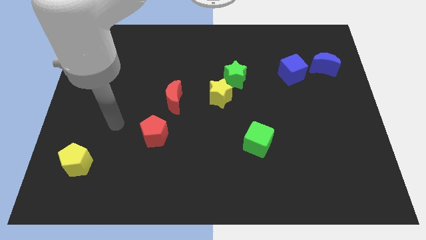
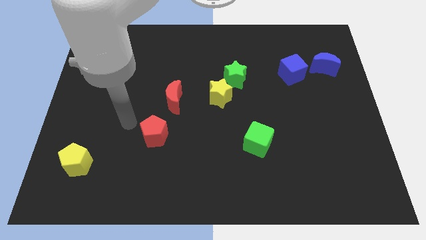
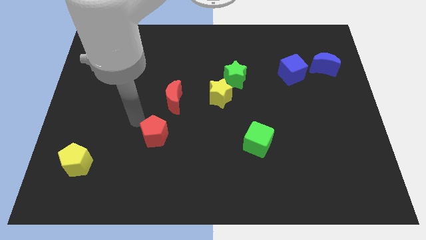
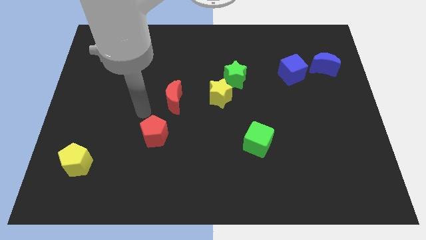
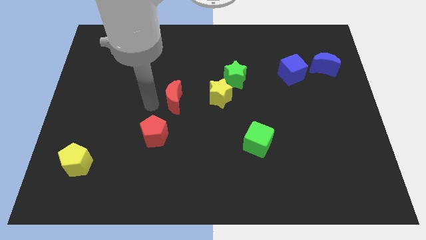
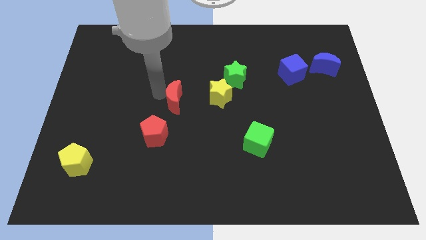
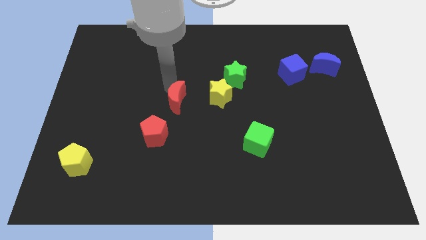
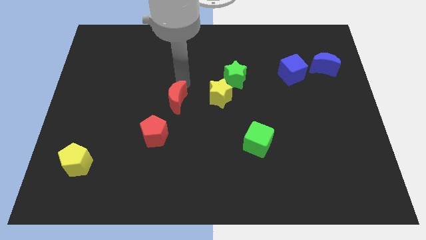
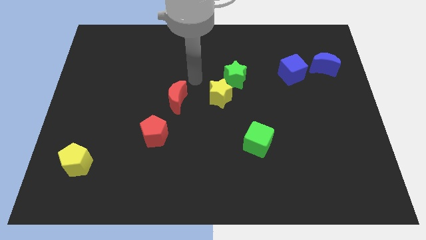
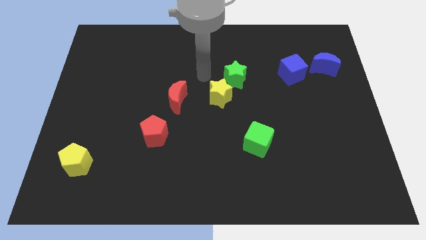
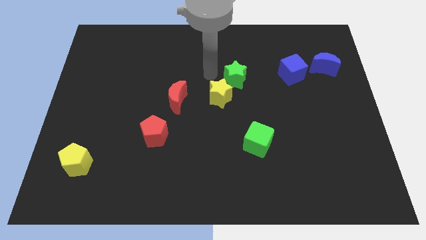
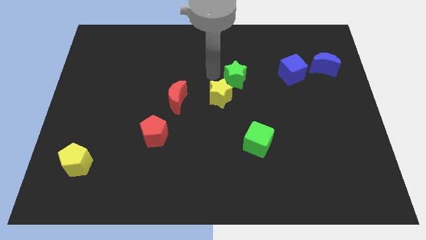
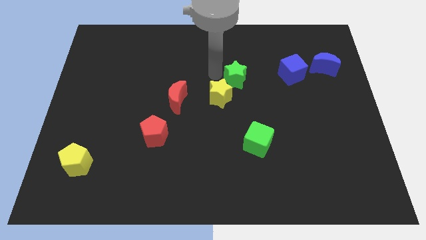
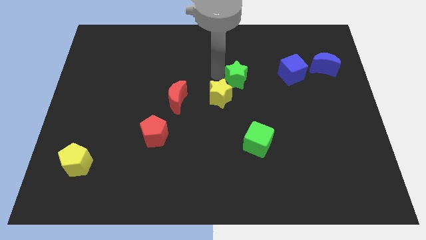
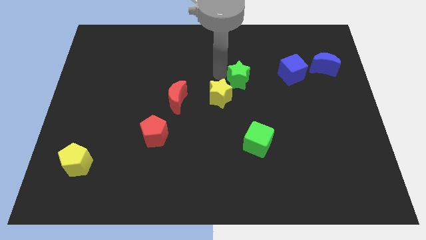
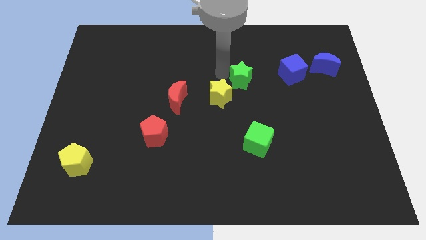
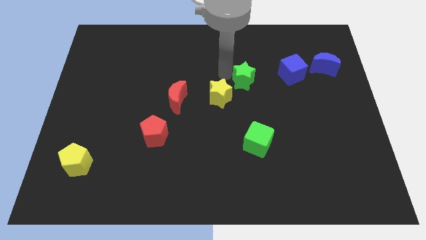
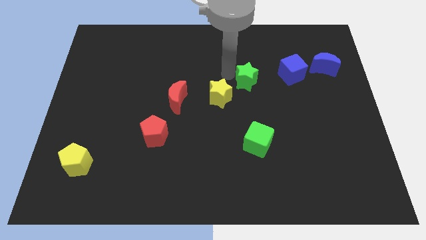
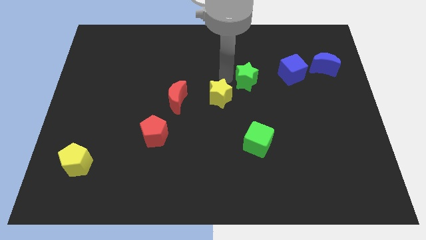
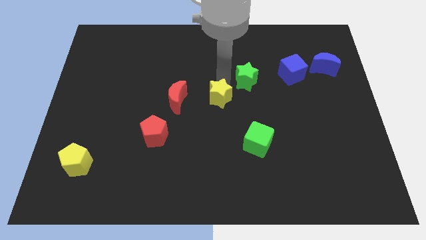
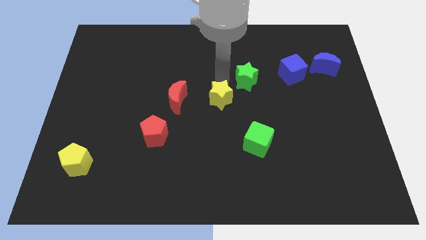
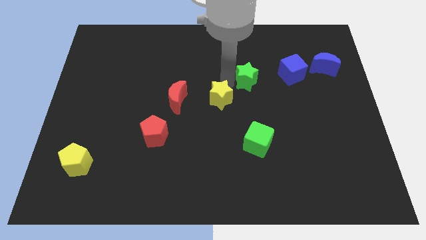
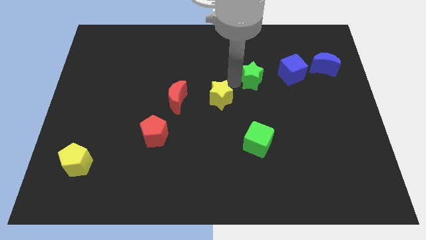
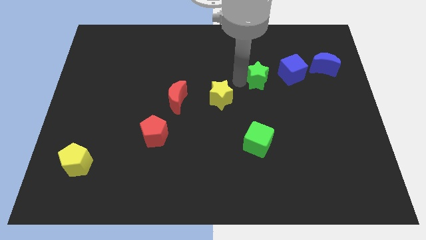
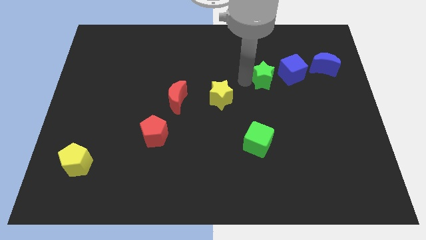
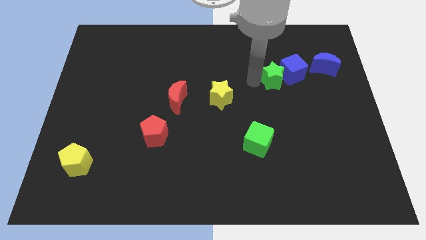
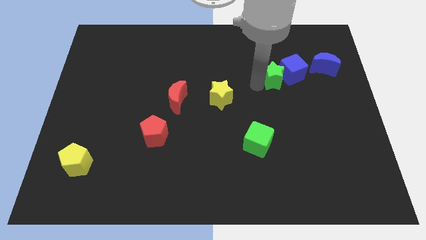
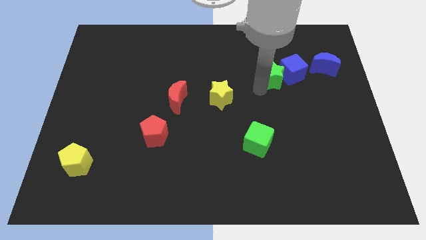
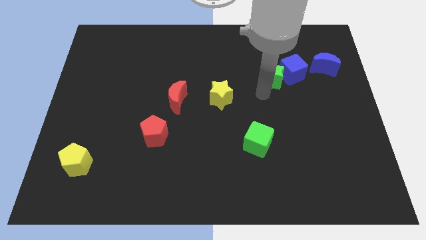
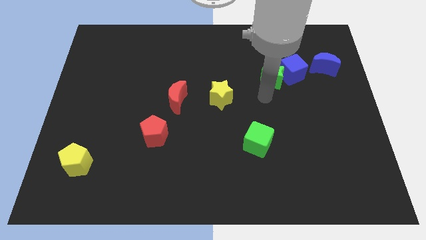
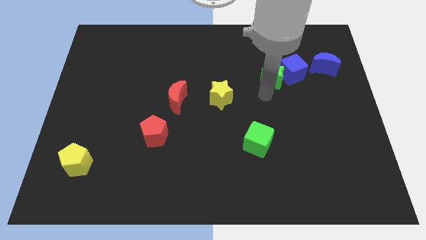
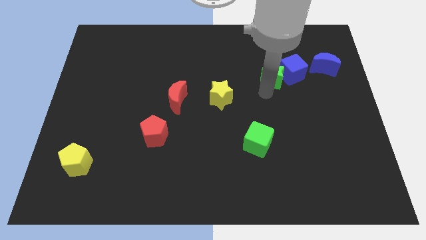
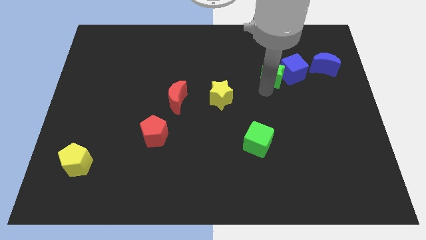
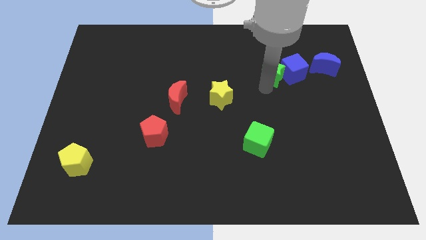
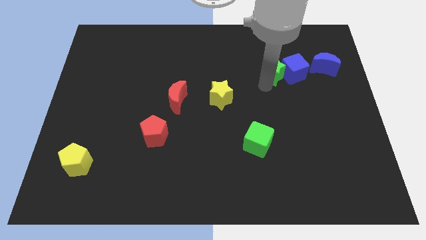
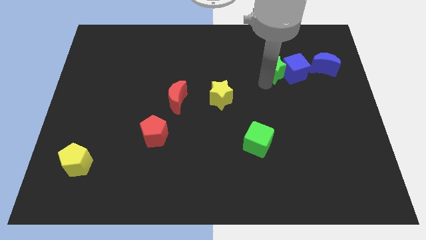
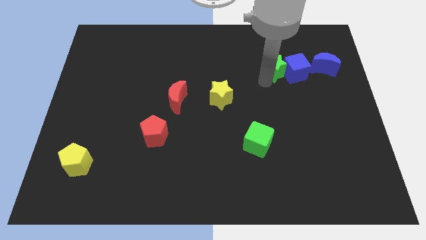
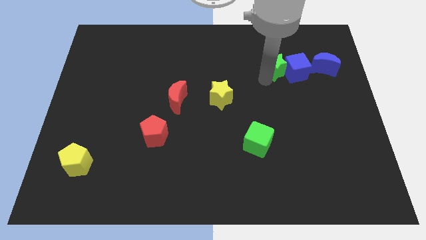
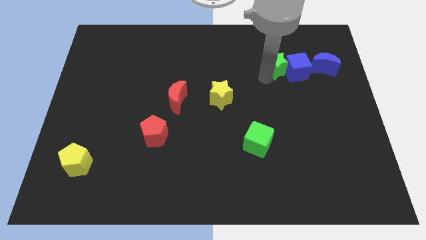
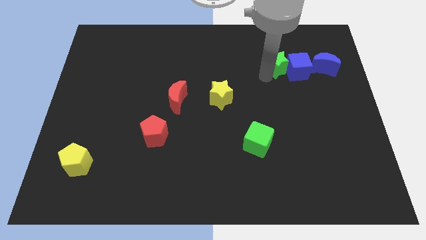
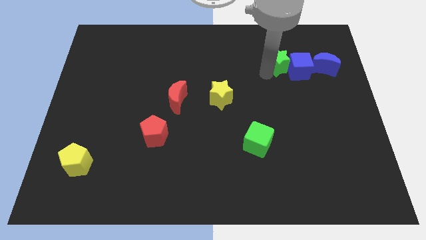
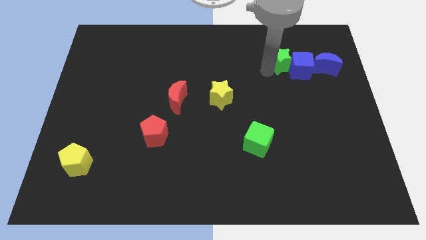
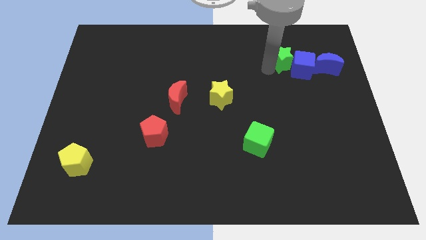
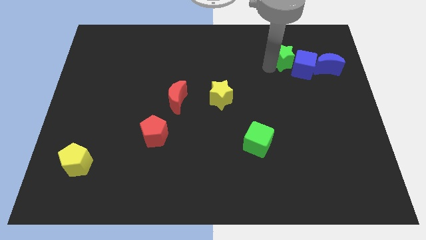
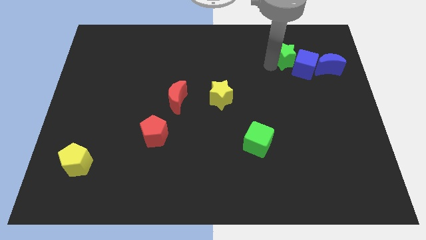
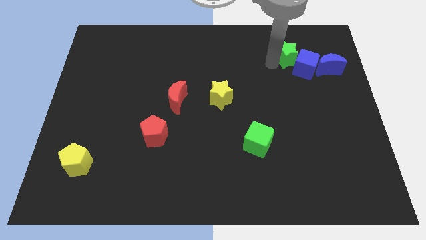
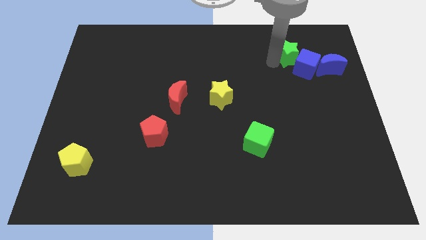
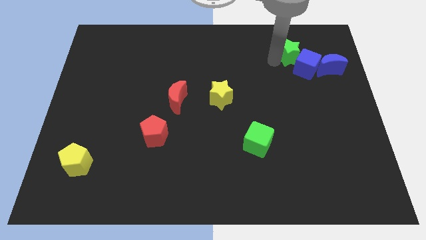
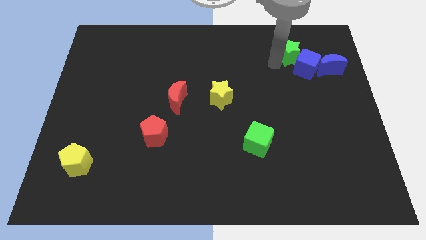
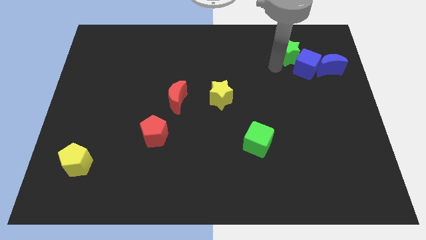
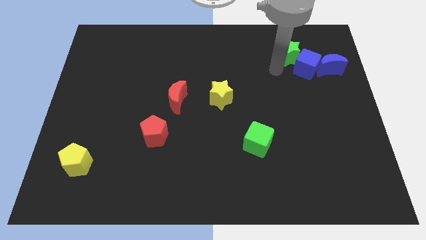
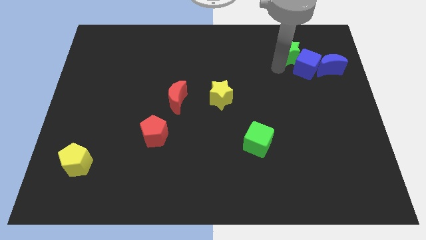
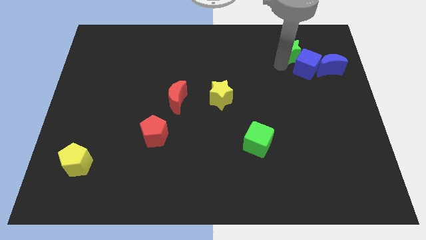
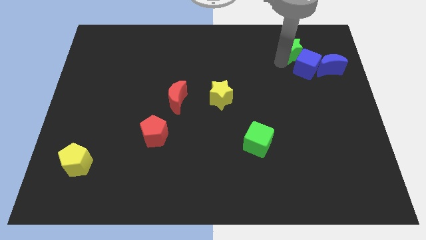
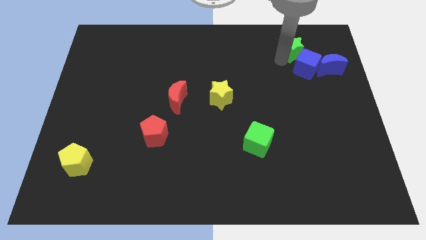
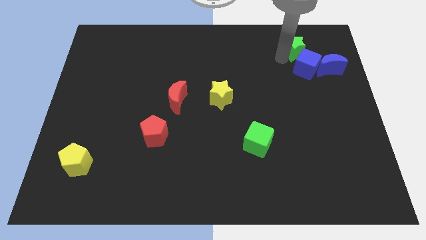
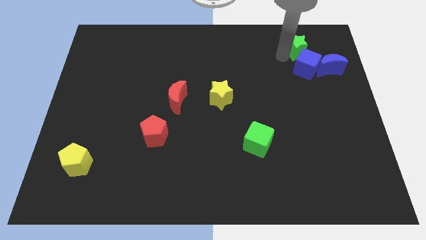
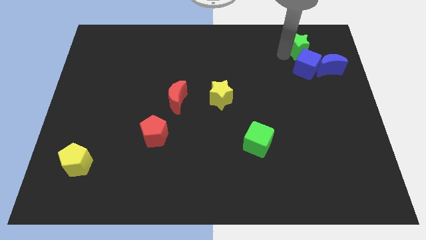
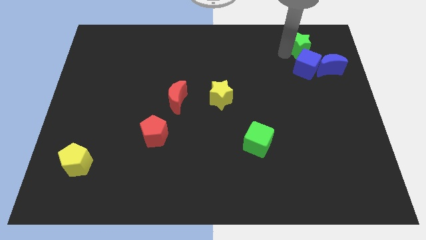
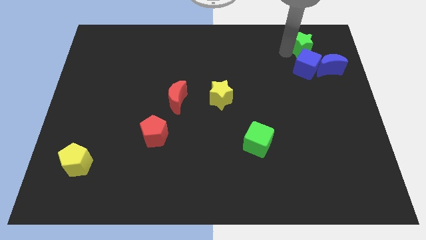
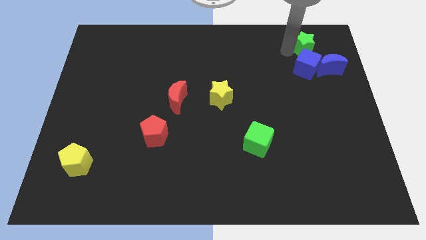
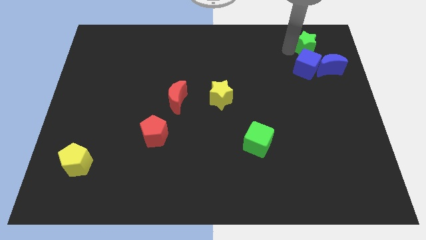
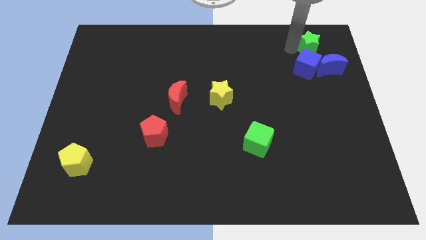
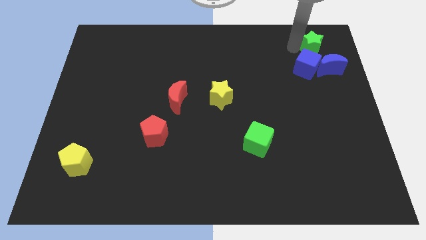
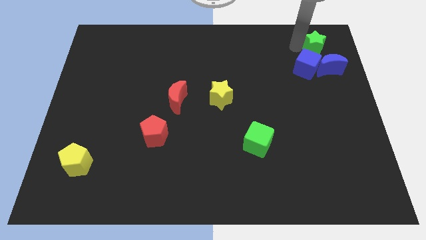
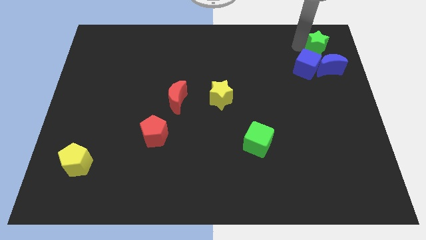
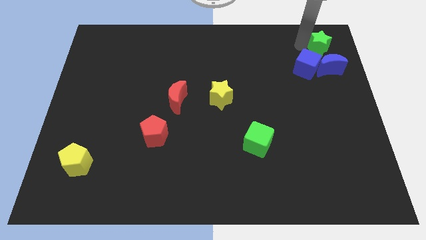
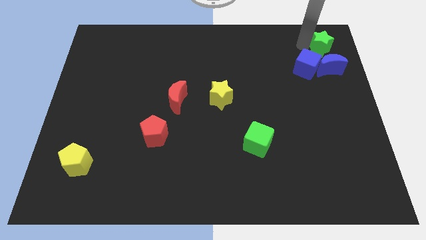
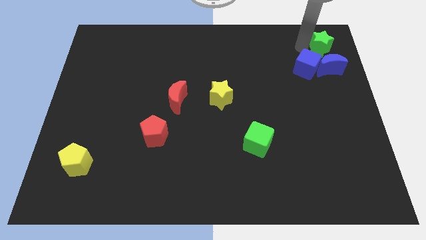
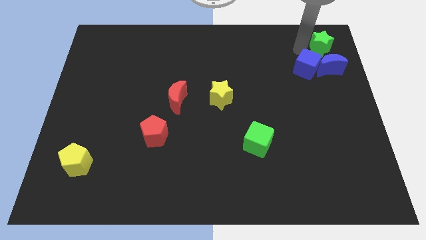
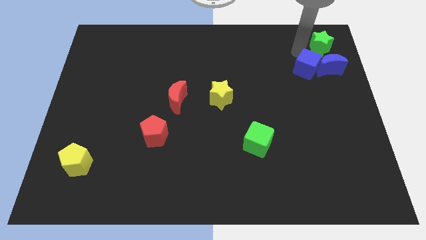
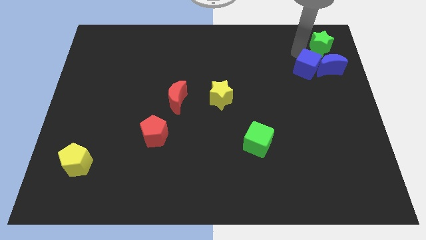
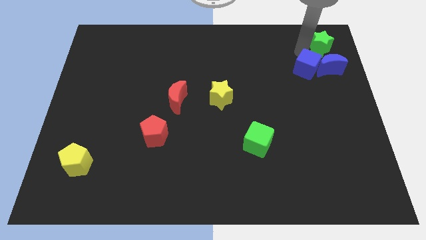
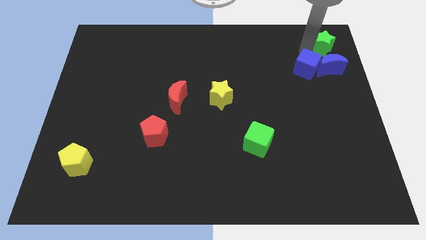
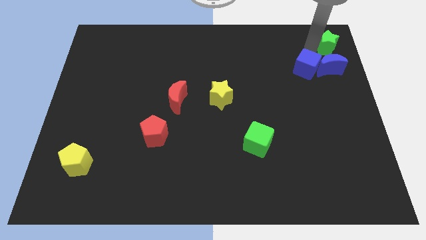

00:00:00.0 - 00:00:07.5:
move the green star to the top right of the board
